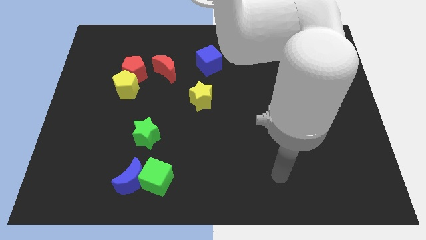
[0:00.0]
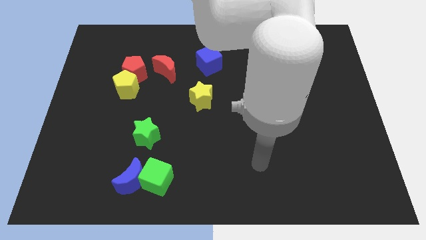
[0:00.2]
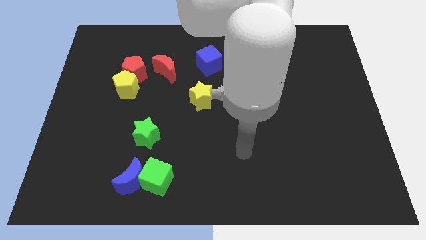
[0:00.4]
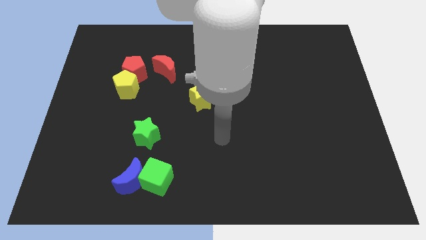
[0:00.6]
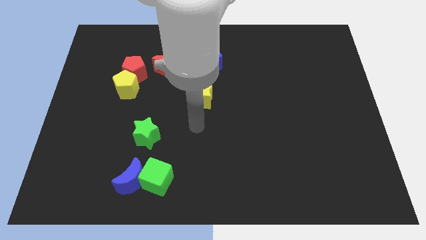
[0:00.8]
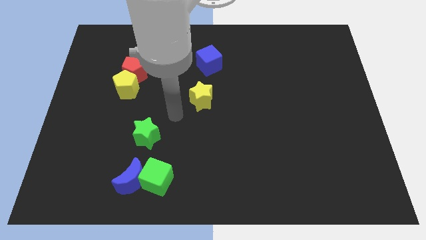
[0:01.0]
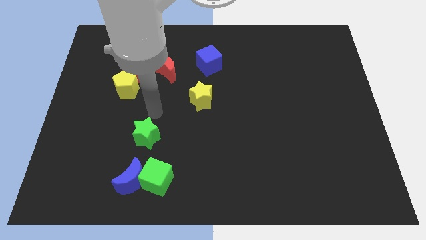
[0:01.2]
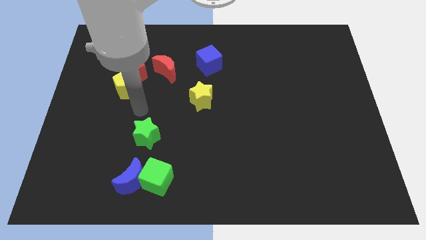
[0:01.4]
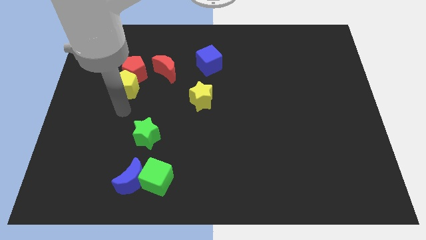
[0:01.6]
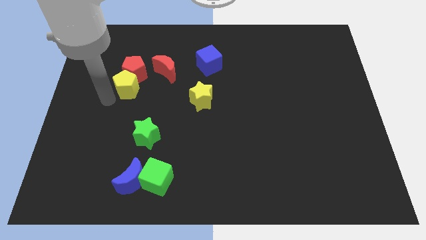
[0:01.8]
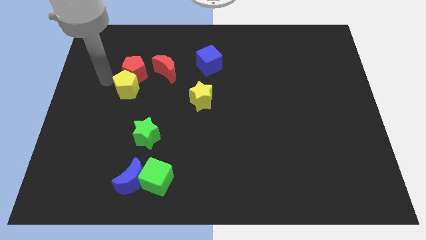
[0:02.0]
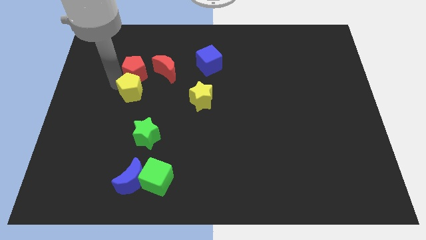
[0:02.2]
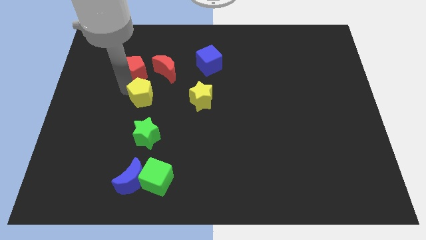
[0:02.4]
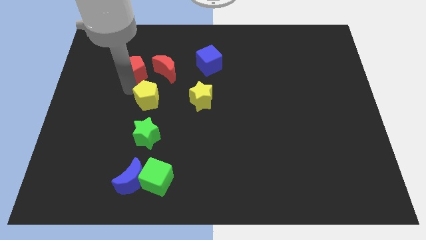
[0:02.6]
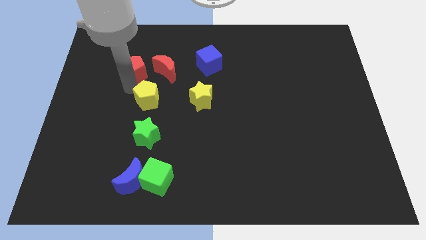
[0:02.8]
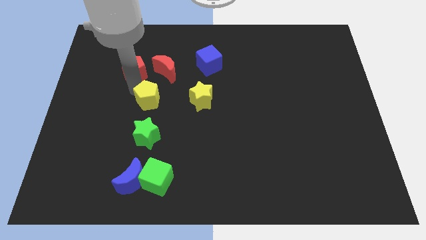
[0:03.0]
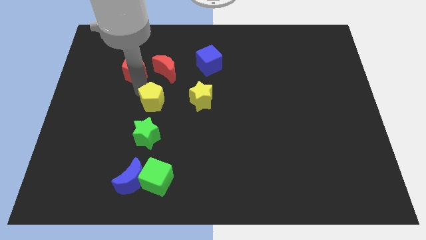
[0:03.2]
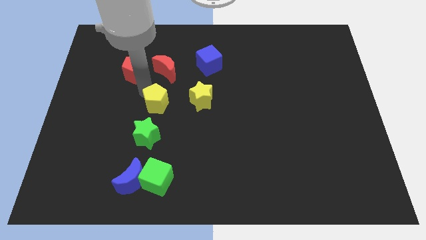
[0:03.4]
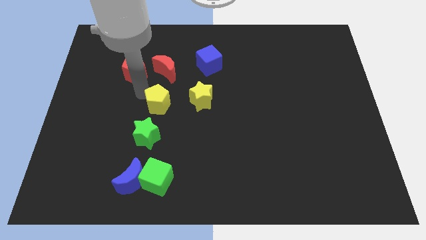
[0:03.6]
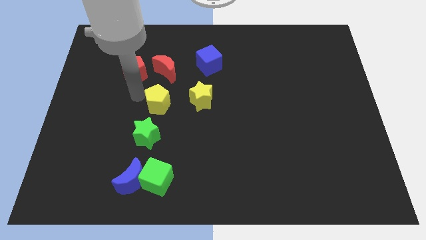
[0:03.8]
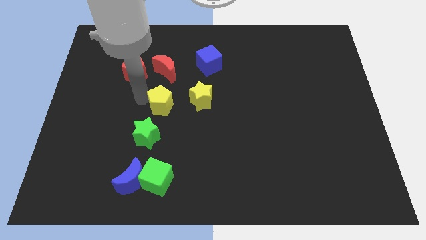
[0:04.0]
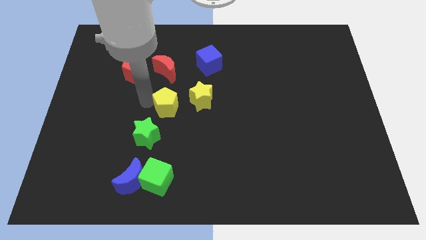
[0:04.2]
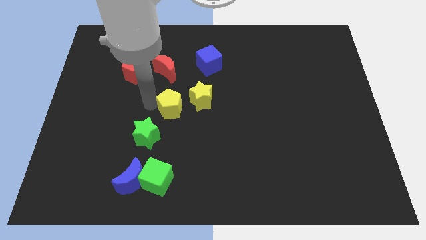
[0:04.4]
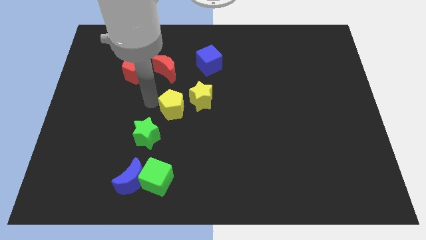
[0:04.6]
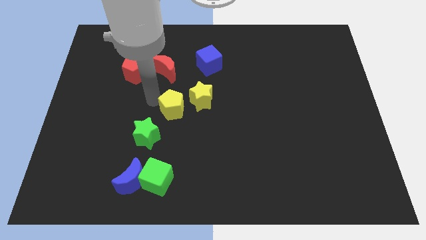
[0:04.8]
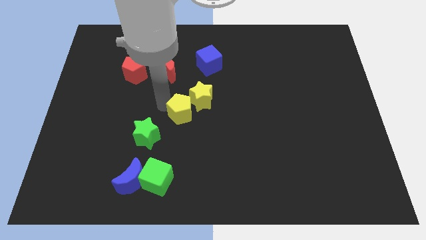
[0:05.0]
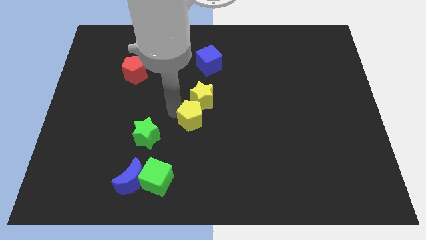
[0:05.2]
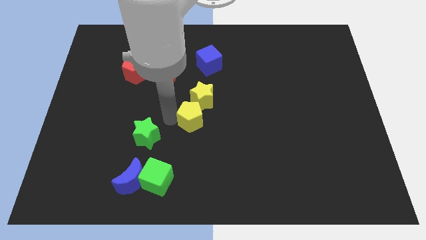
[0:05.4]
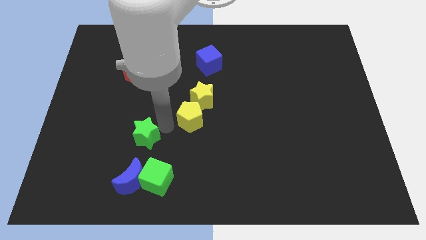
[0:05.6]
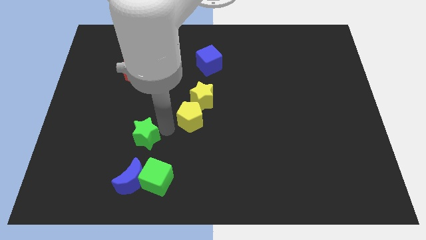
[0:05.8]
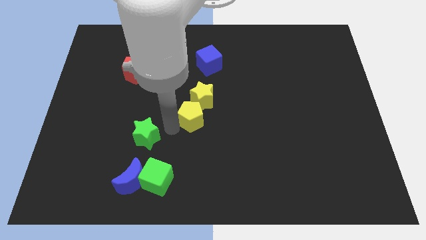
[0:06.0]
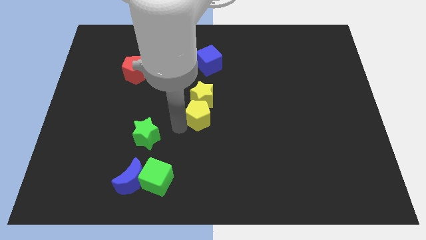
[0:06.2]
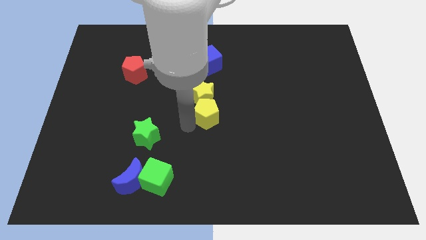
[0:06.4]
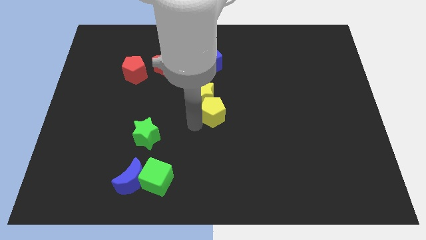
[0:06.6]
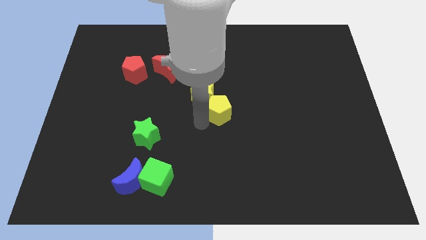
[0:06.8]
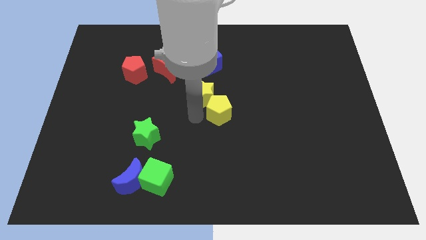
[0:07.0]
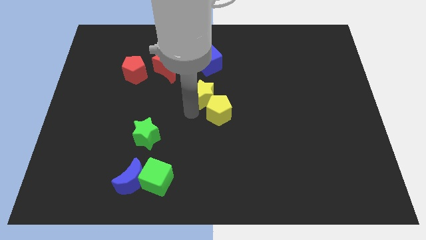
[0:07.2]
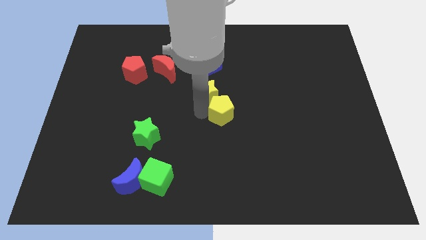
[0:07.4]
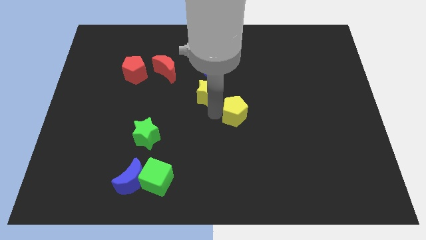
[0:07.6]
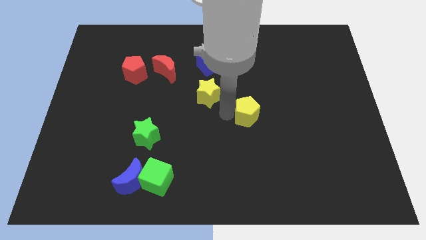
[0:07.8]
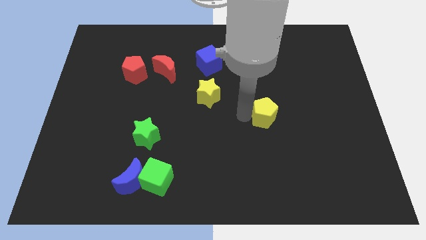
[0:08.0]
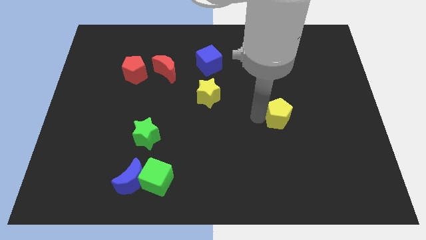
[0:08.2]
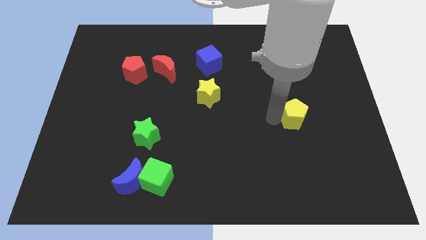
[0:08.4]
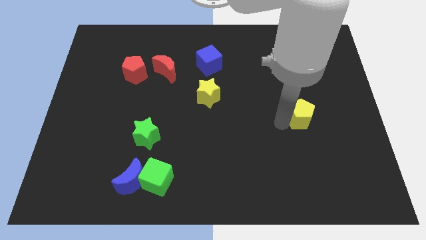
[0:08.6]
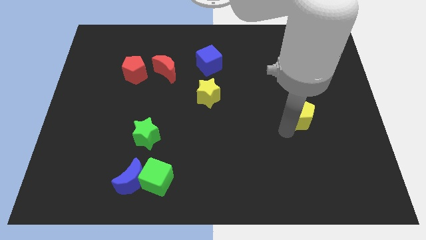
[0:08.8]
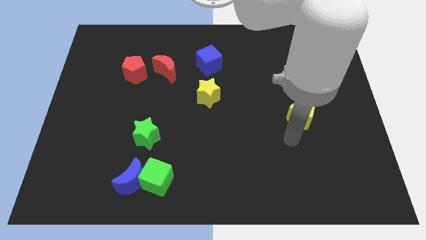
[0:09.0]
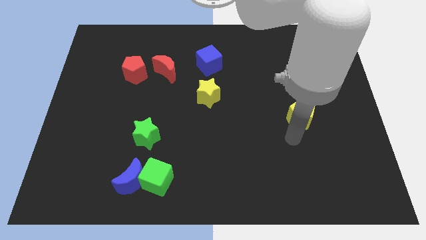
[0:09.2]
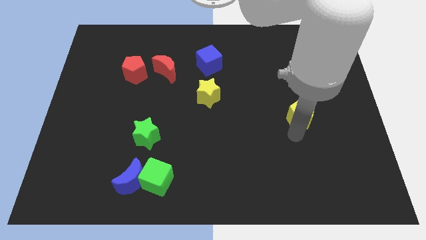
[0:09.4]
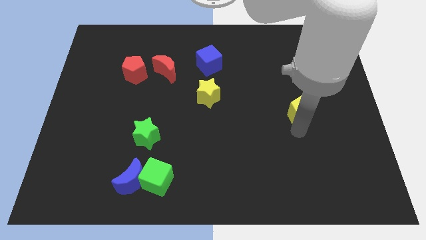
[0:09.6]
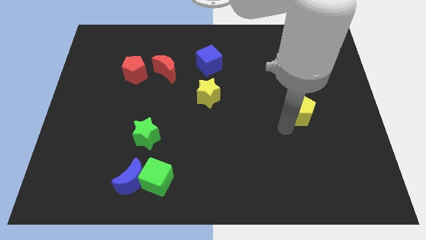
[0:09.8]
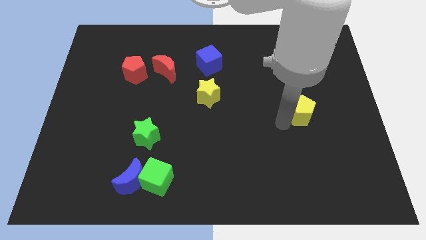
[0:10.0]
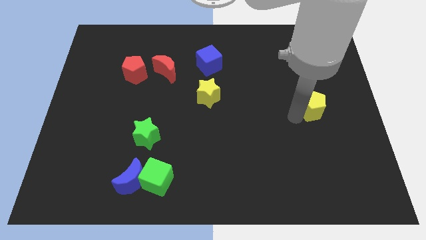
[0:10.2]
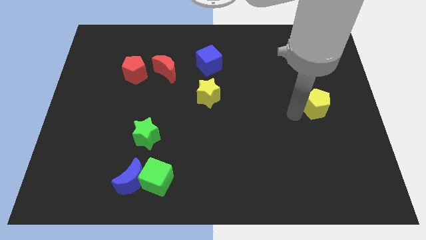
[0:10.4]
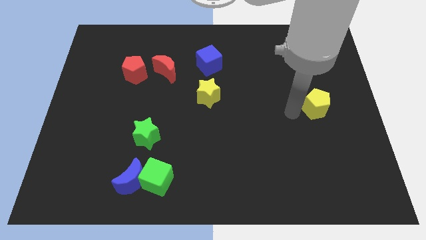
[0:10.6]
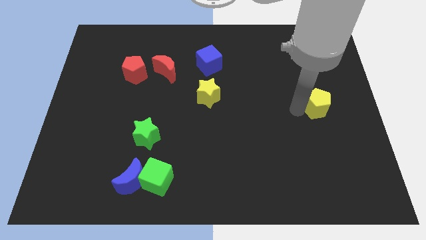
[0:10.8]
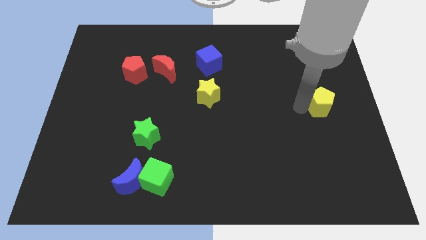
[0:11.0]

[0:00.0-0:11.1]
put the yellow pentagon to the center right

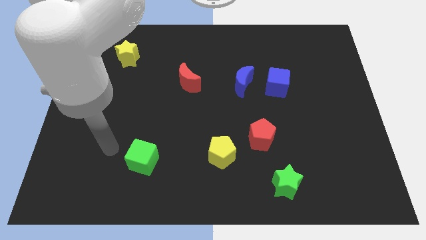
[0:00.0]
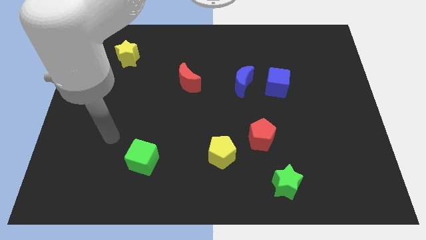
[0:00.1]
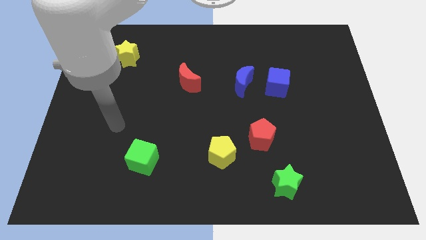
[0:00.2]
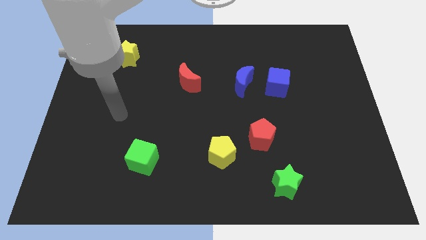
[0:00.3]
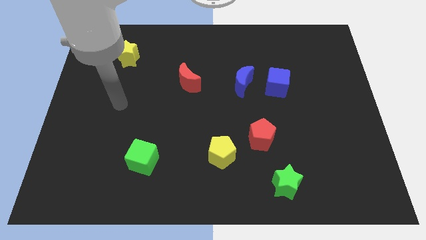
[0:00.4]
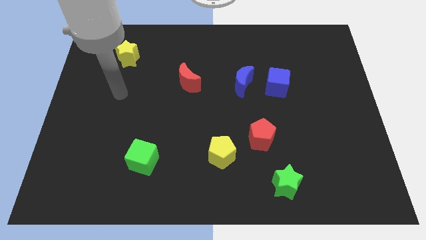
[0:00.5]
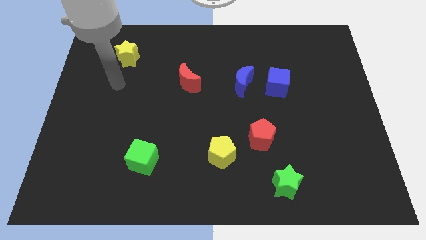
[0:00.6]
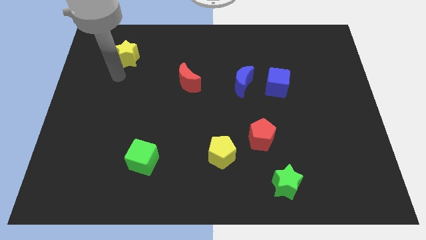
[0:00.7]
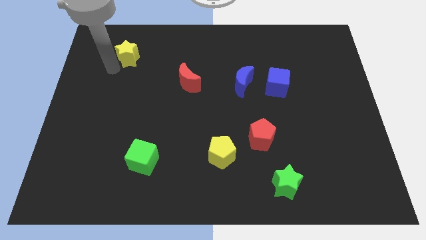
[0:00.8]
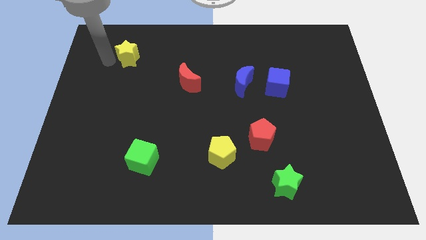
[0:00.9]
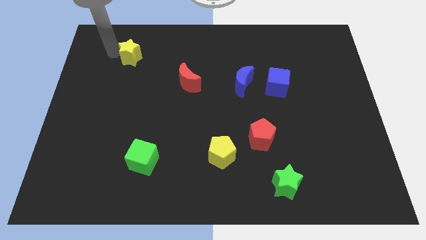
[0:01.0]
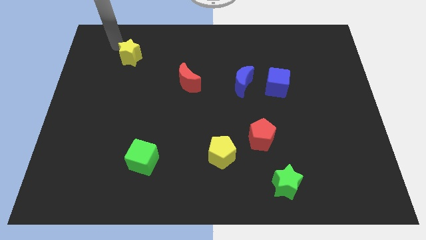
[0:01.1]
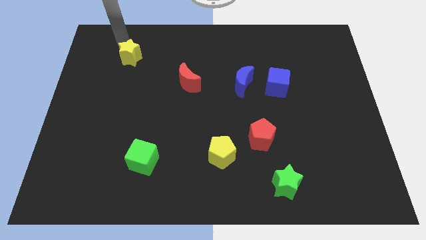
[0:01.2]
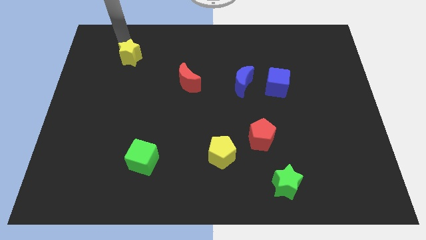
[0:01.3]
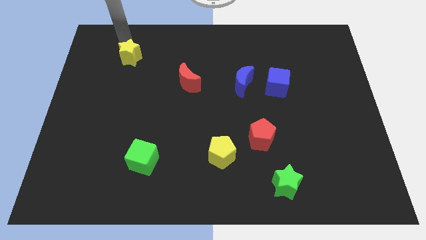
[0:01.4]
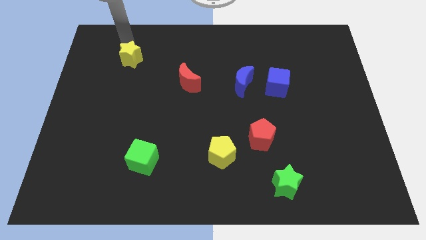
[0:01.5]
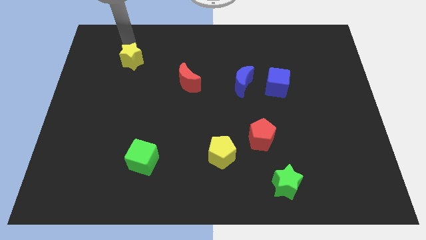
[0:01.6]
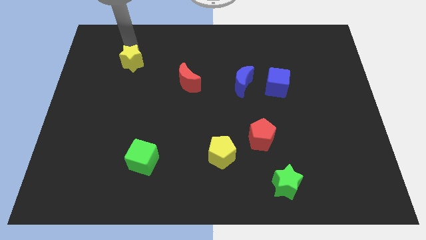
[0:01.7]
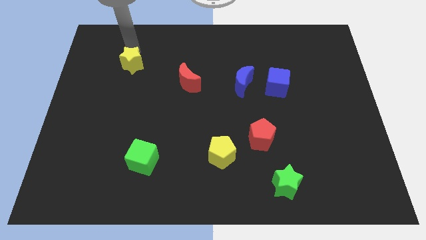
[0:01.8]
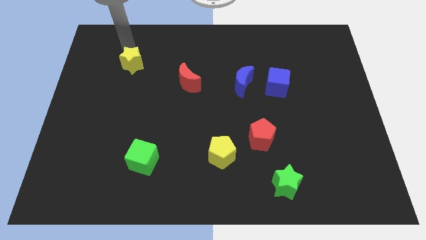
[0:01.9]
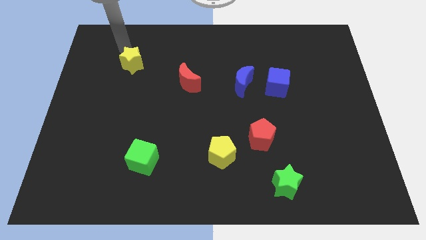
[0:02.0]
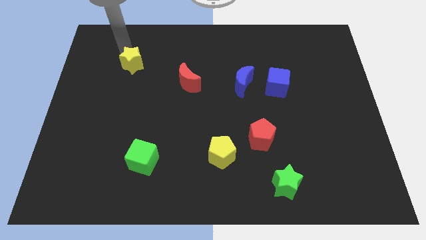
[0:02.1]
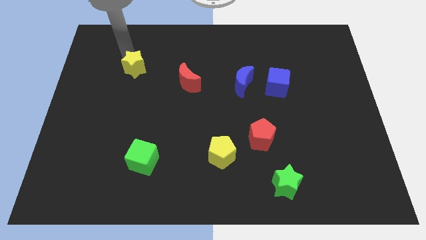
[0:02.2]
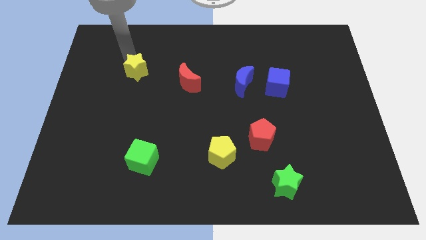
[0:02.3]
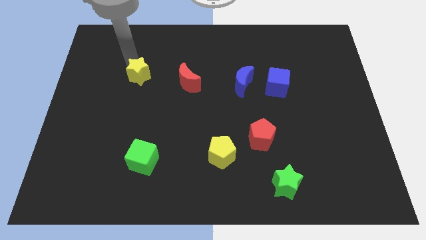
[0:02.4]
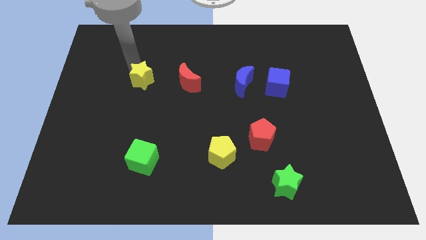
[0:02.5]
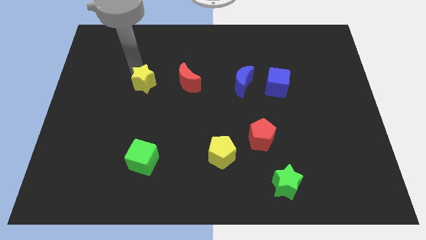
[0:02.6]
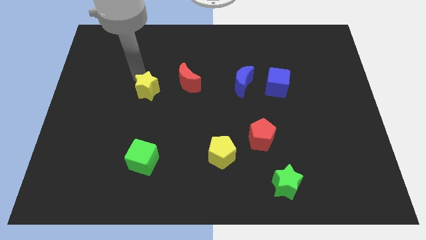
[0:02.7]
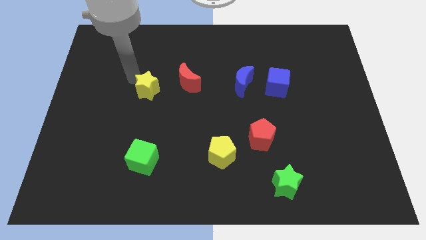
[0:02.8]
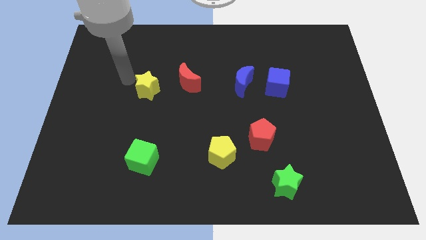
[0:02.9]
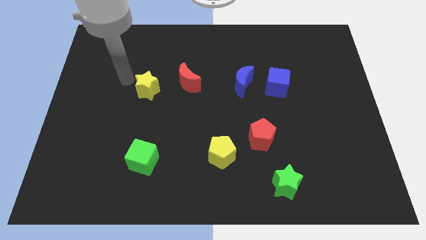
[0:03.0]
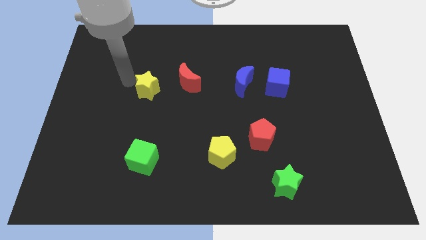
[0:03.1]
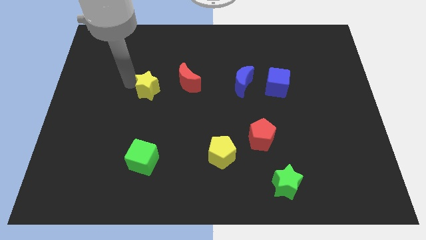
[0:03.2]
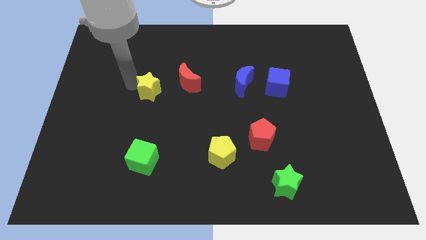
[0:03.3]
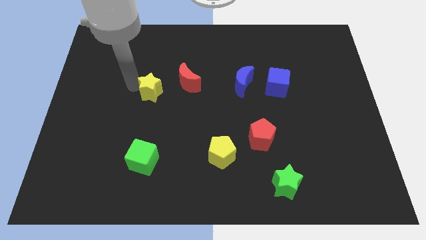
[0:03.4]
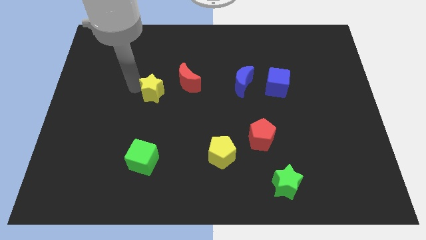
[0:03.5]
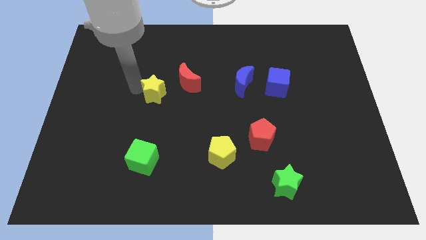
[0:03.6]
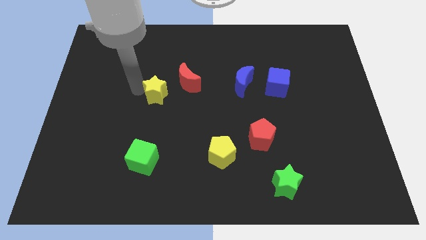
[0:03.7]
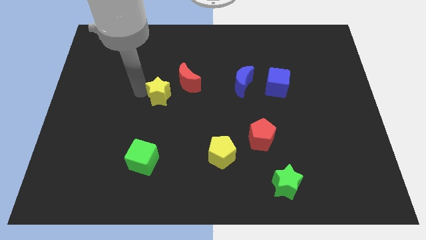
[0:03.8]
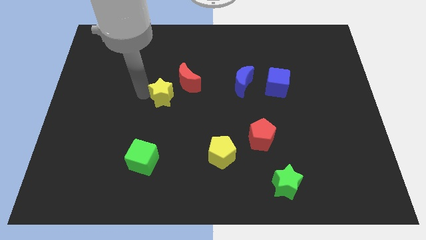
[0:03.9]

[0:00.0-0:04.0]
put the yellow star to the center
